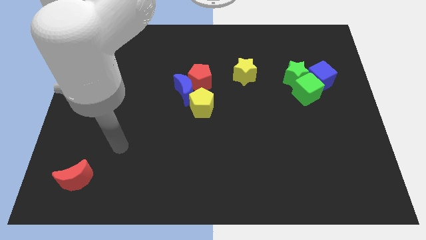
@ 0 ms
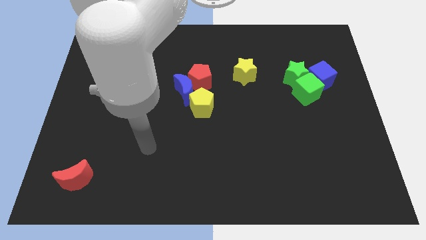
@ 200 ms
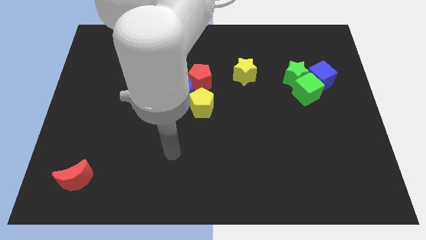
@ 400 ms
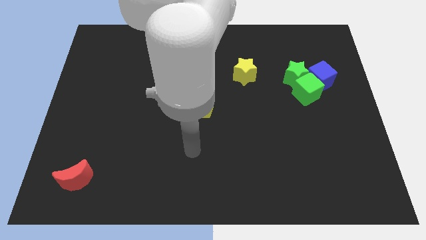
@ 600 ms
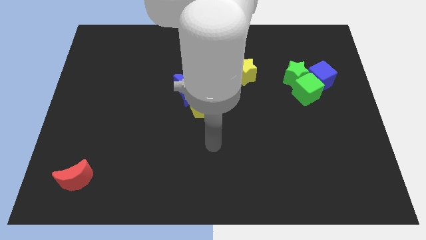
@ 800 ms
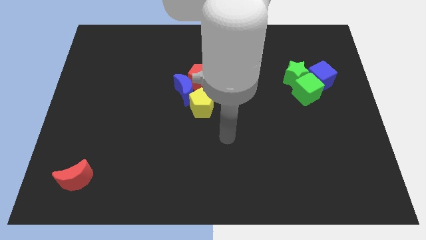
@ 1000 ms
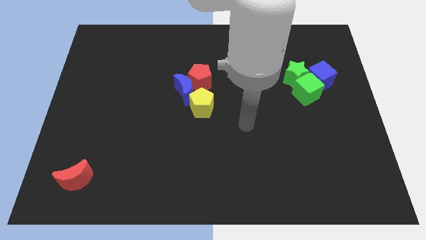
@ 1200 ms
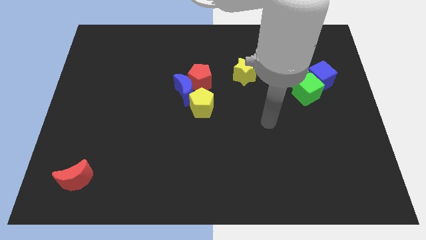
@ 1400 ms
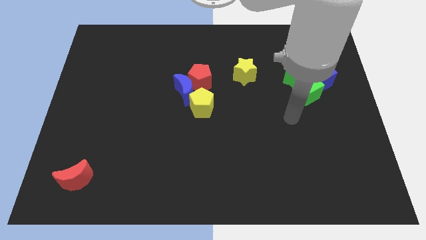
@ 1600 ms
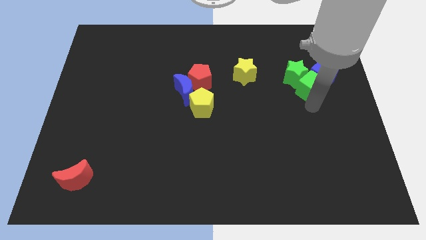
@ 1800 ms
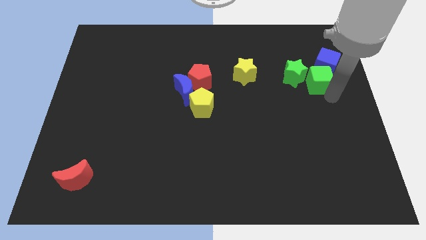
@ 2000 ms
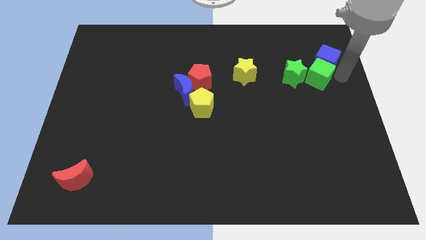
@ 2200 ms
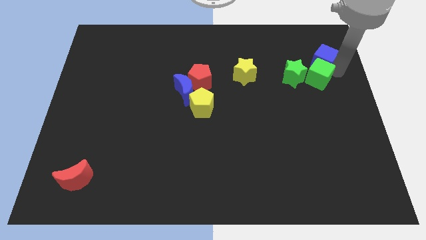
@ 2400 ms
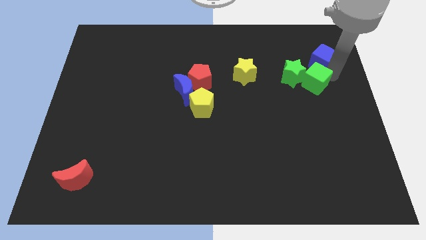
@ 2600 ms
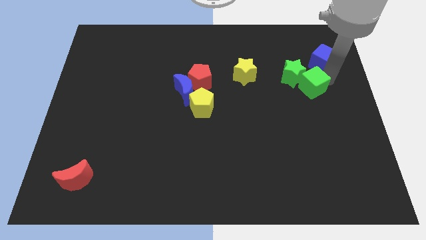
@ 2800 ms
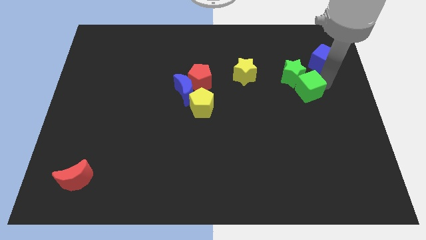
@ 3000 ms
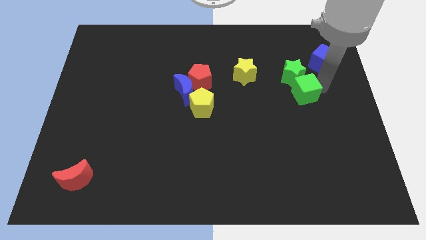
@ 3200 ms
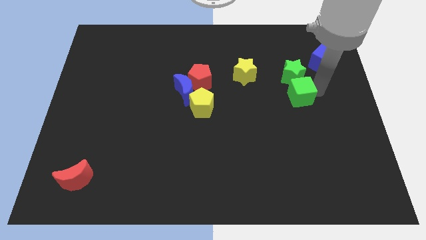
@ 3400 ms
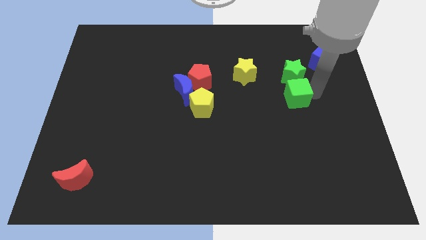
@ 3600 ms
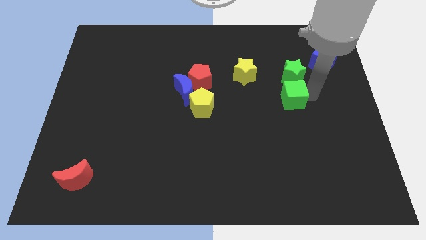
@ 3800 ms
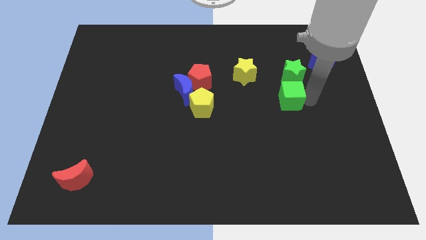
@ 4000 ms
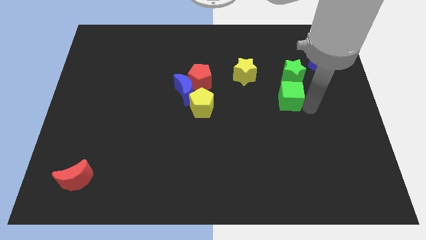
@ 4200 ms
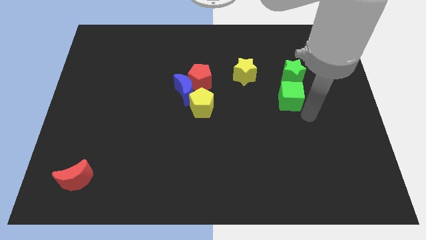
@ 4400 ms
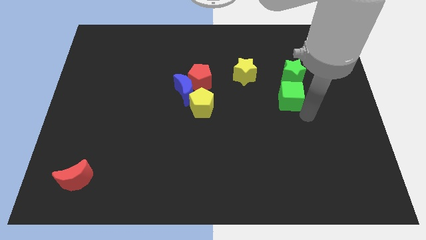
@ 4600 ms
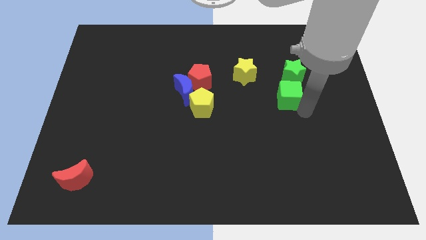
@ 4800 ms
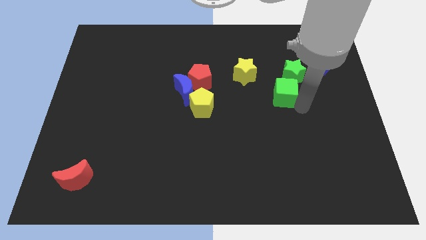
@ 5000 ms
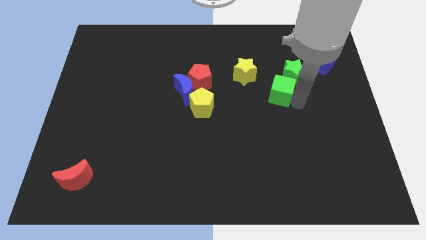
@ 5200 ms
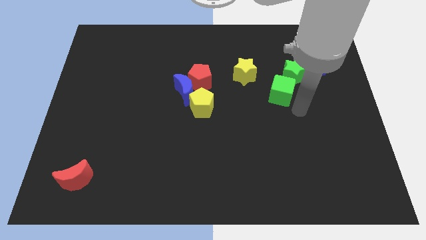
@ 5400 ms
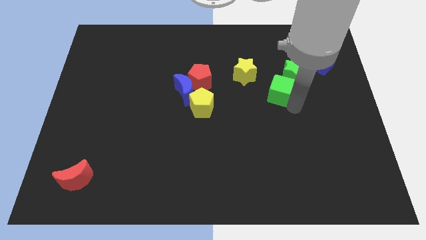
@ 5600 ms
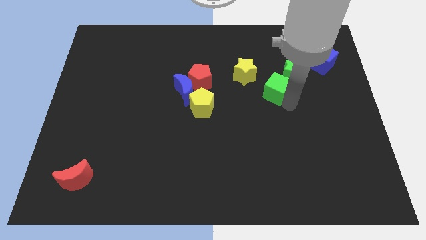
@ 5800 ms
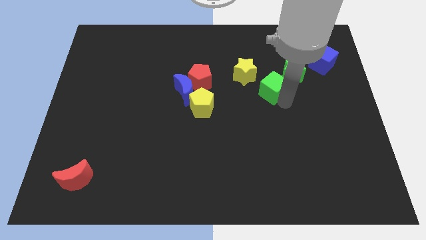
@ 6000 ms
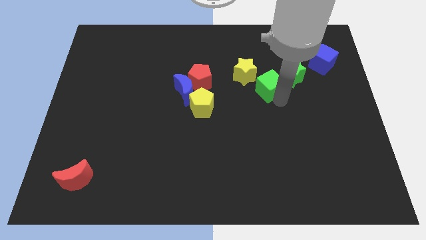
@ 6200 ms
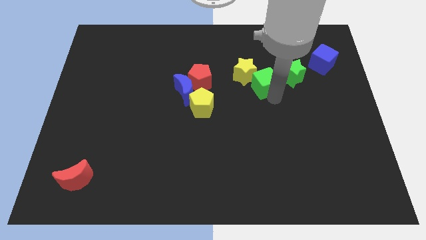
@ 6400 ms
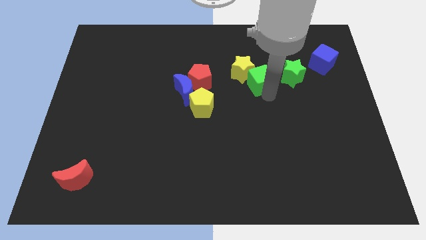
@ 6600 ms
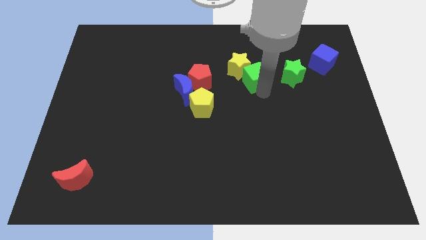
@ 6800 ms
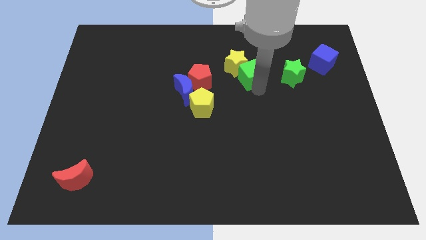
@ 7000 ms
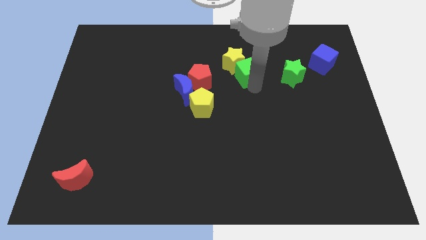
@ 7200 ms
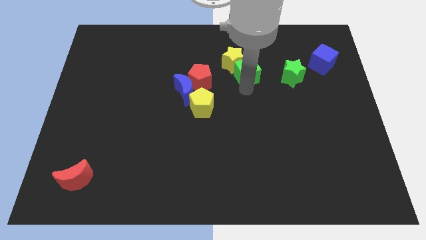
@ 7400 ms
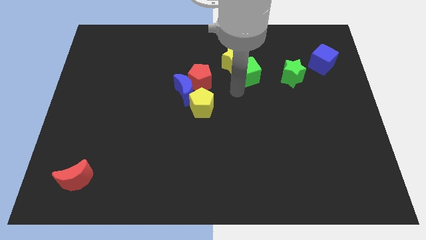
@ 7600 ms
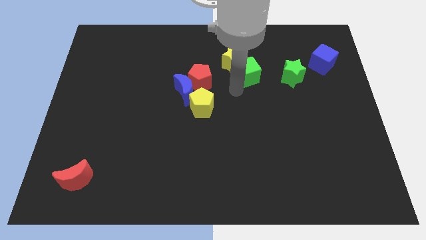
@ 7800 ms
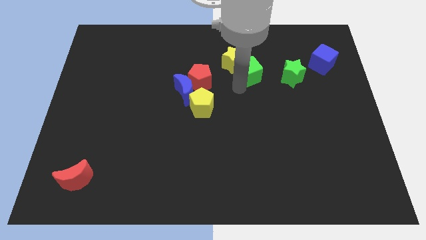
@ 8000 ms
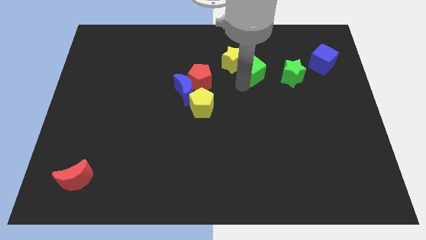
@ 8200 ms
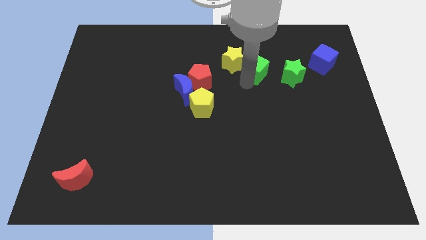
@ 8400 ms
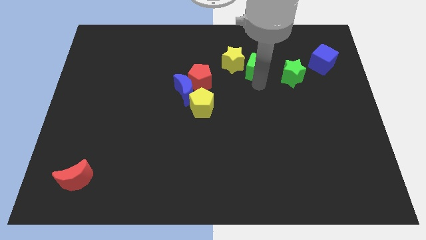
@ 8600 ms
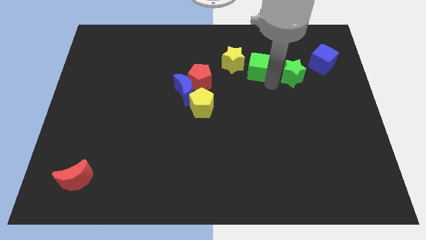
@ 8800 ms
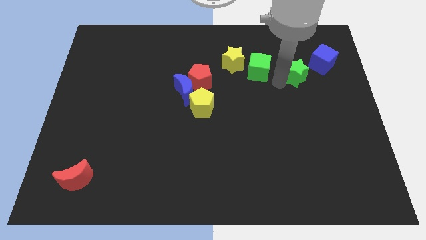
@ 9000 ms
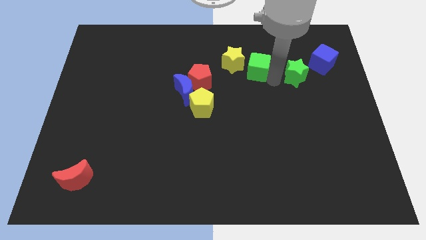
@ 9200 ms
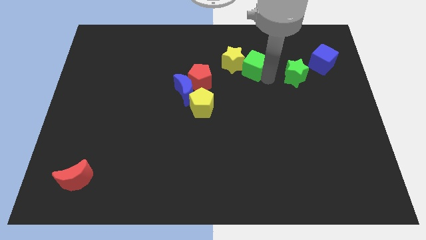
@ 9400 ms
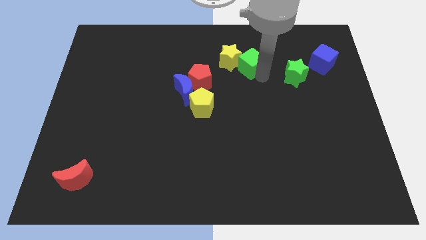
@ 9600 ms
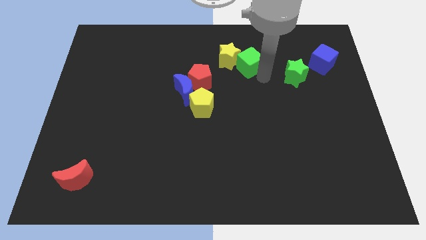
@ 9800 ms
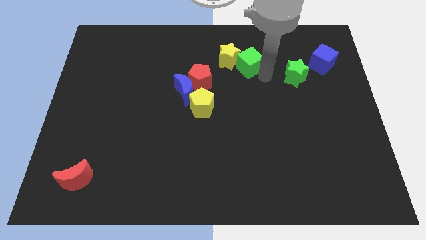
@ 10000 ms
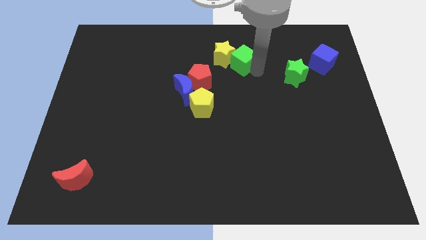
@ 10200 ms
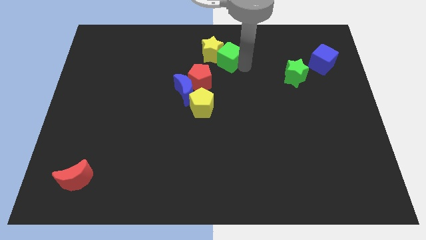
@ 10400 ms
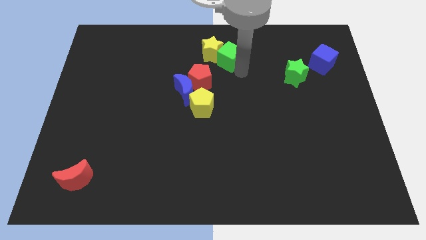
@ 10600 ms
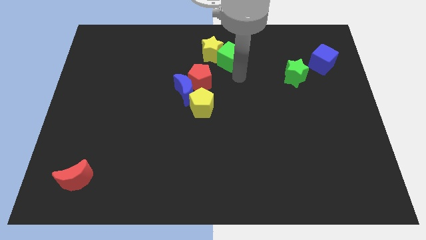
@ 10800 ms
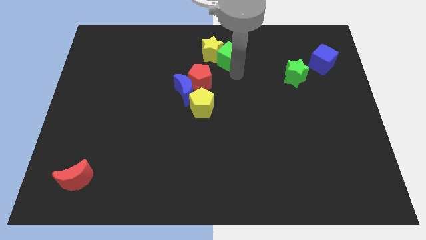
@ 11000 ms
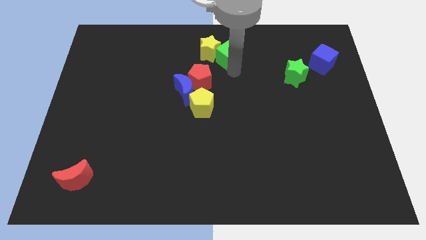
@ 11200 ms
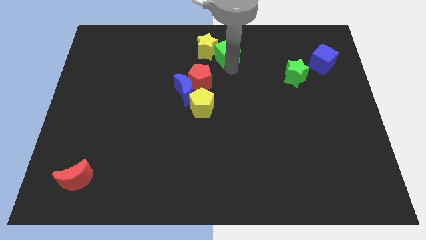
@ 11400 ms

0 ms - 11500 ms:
slide the green cube to the towards your base
